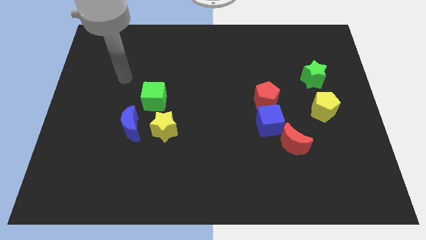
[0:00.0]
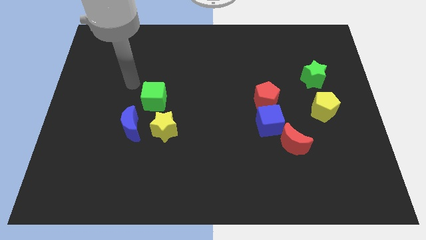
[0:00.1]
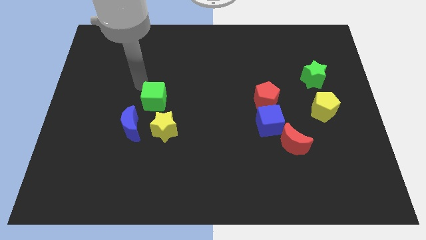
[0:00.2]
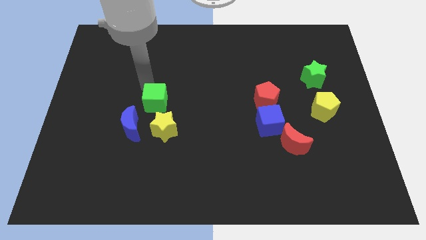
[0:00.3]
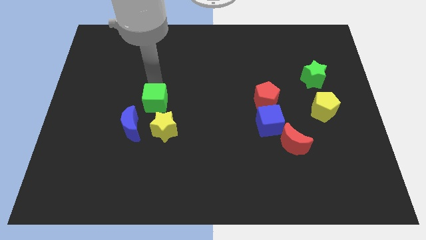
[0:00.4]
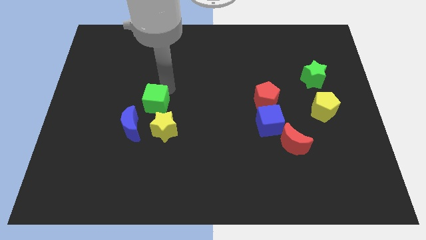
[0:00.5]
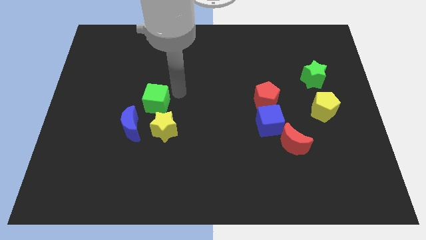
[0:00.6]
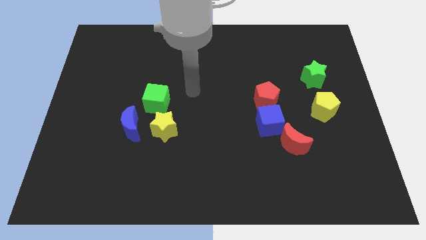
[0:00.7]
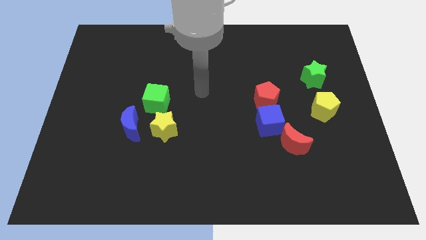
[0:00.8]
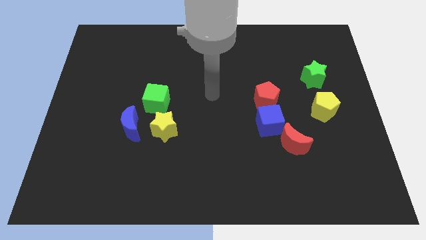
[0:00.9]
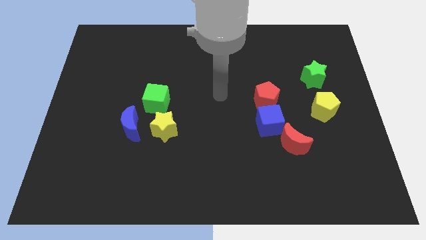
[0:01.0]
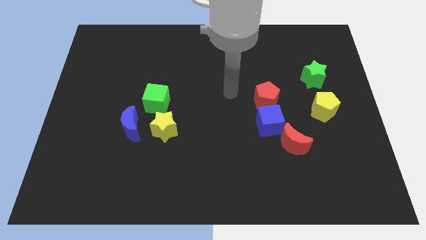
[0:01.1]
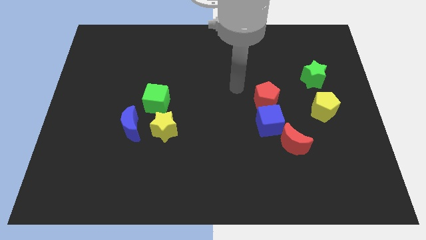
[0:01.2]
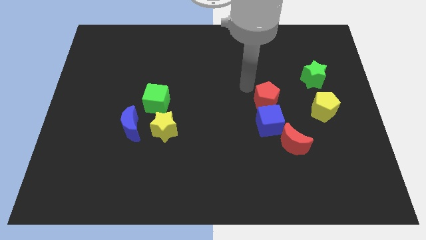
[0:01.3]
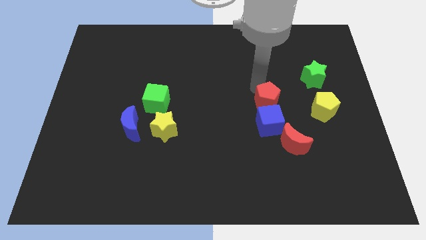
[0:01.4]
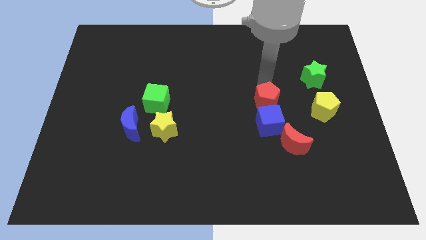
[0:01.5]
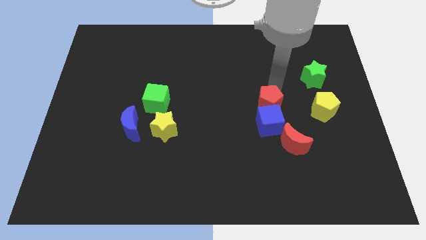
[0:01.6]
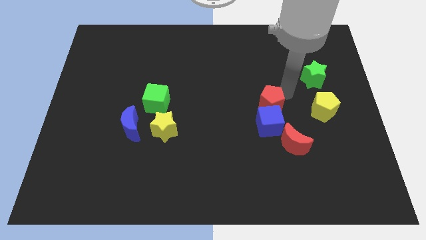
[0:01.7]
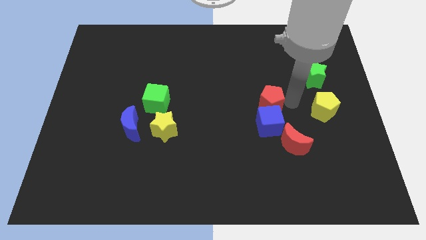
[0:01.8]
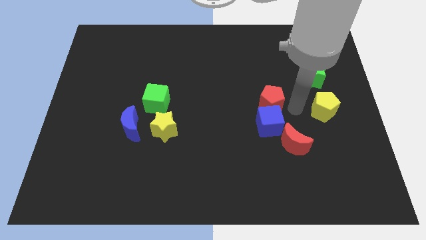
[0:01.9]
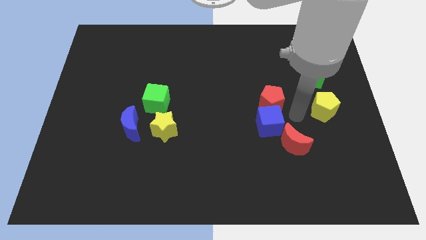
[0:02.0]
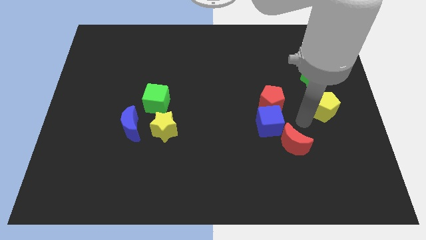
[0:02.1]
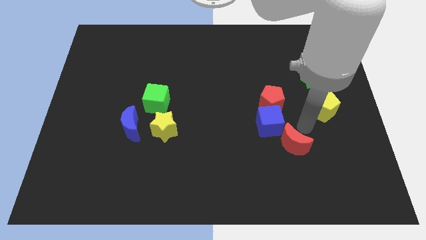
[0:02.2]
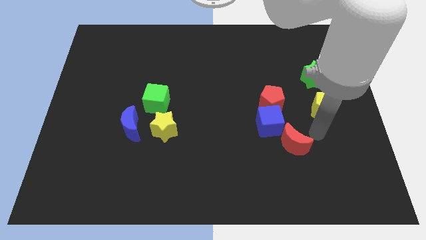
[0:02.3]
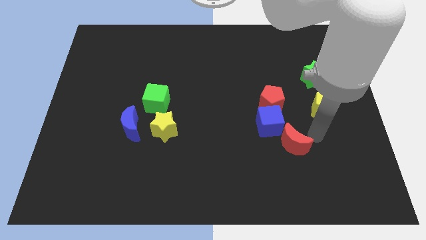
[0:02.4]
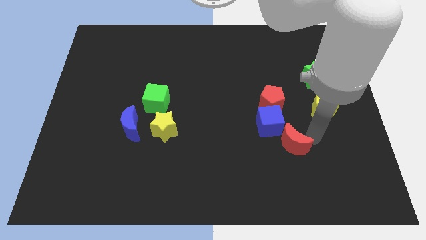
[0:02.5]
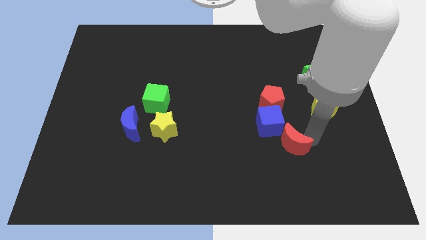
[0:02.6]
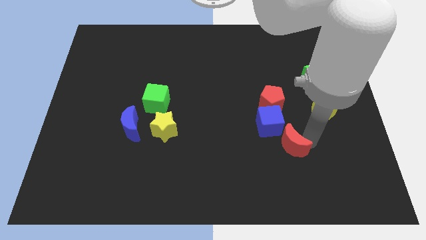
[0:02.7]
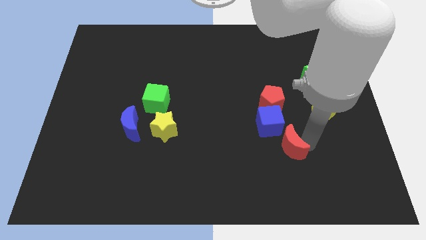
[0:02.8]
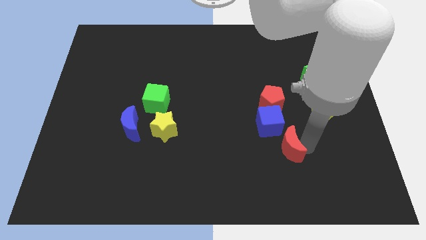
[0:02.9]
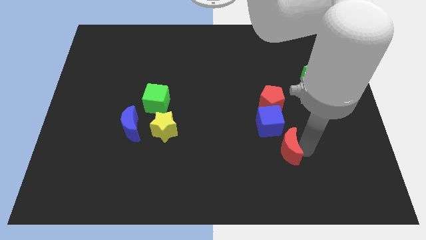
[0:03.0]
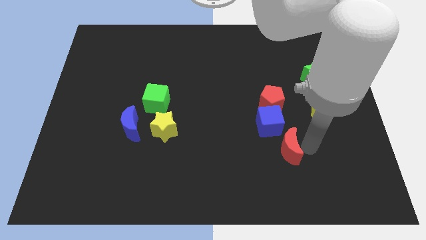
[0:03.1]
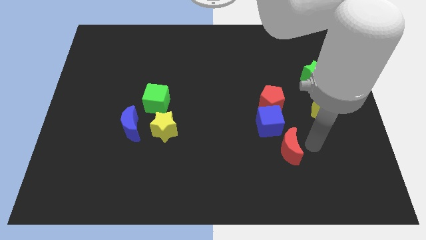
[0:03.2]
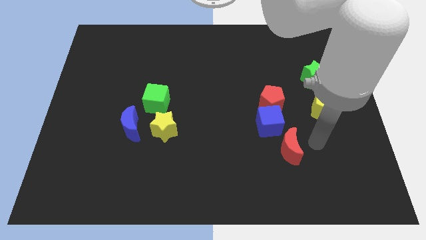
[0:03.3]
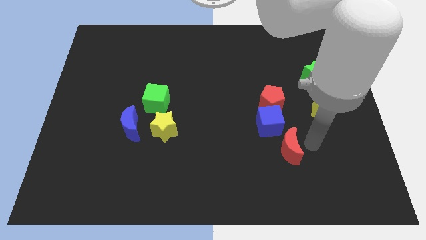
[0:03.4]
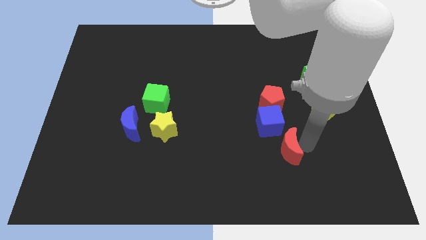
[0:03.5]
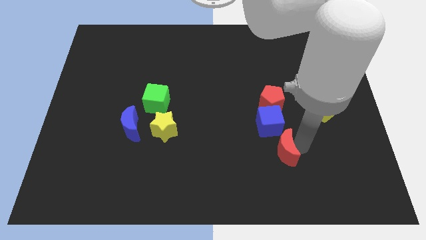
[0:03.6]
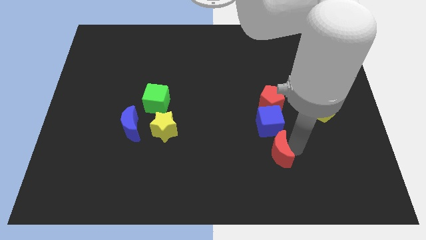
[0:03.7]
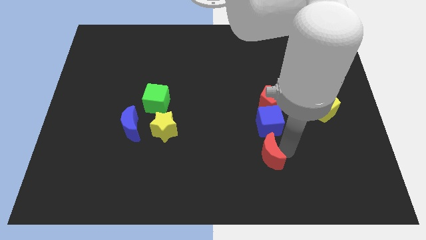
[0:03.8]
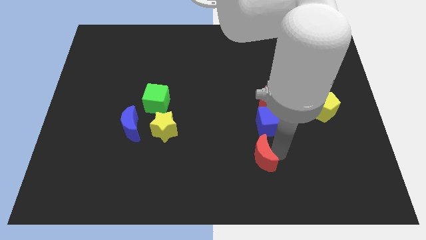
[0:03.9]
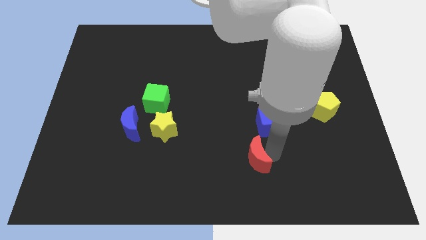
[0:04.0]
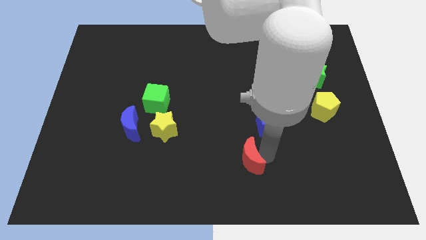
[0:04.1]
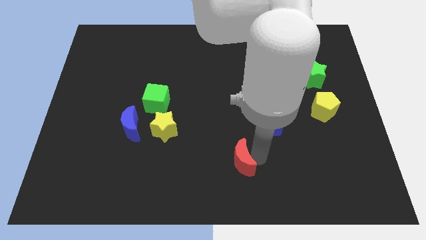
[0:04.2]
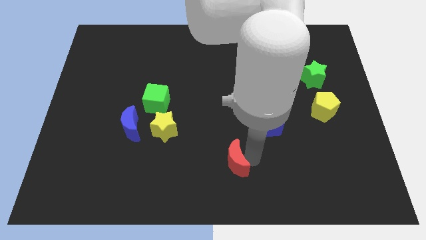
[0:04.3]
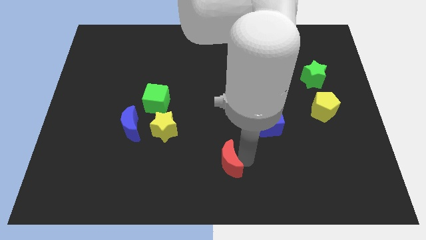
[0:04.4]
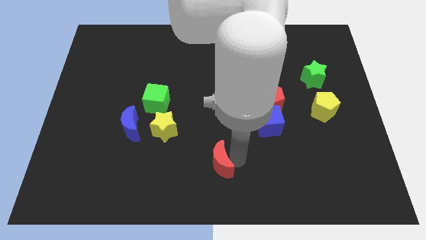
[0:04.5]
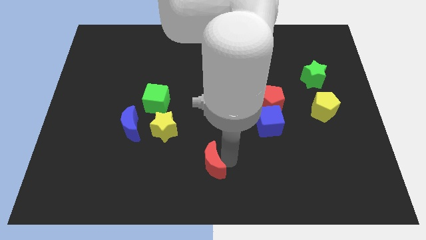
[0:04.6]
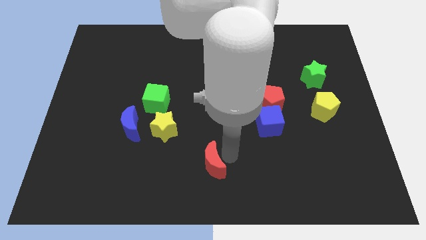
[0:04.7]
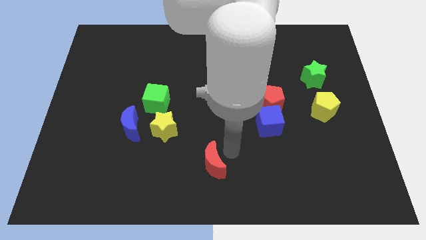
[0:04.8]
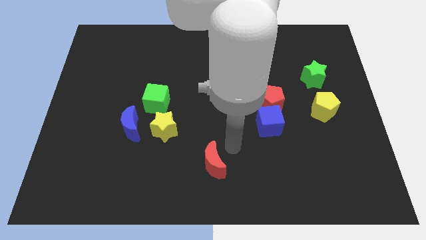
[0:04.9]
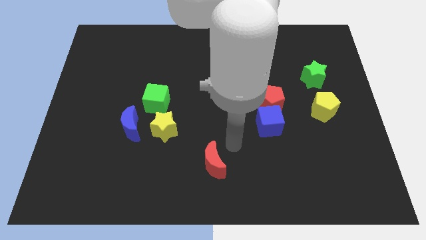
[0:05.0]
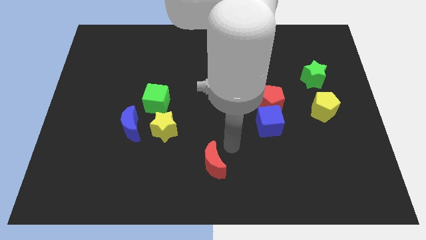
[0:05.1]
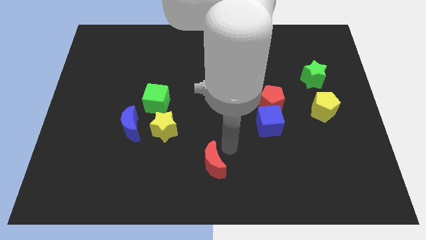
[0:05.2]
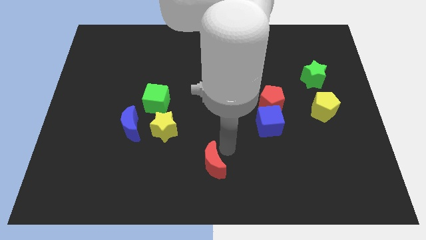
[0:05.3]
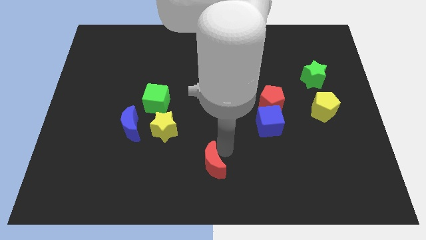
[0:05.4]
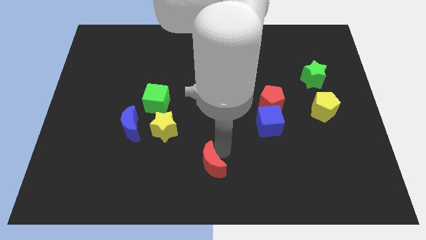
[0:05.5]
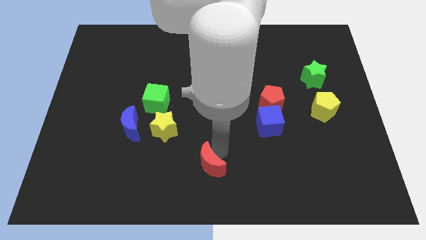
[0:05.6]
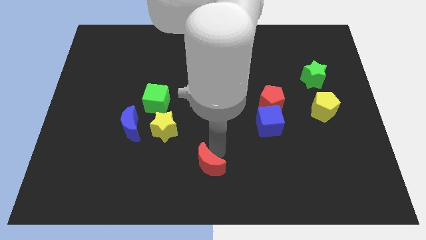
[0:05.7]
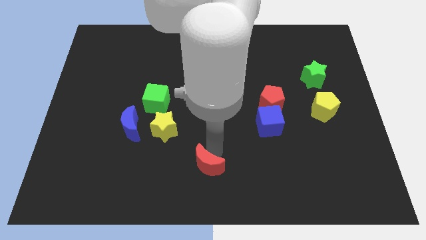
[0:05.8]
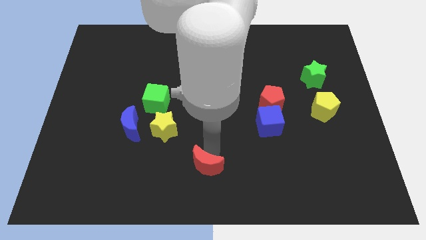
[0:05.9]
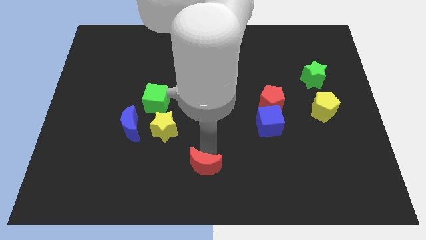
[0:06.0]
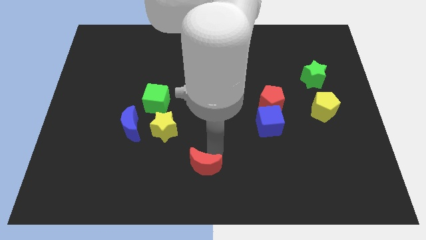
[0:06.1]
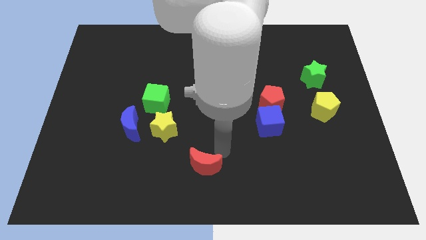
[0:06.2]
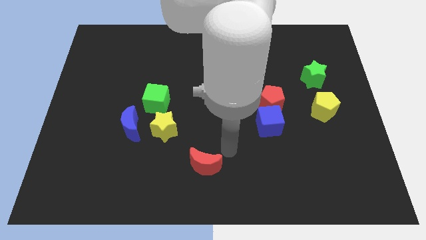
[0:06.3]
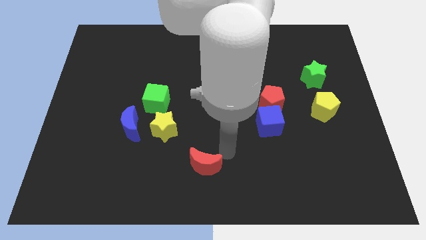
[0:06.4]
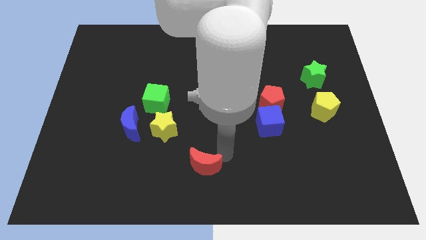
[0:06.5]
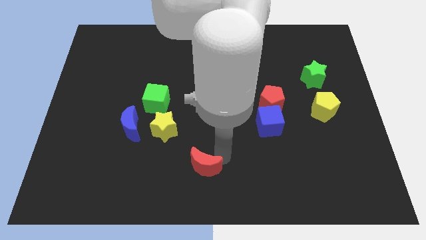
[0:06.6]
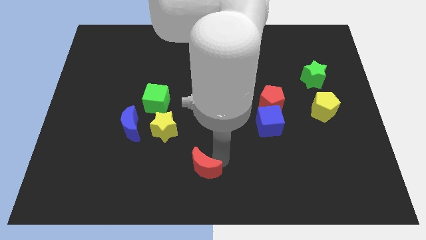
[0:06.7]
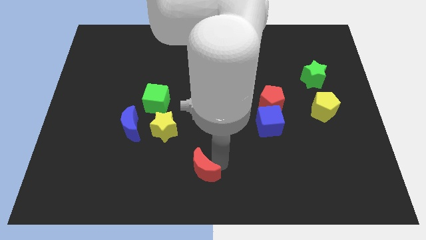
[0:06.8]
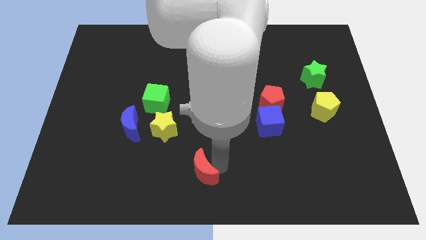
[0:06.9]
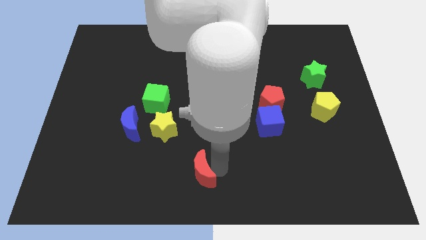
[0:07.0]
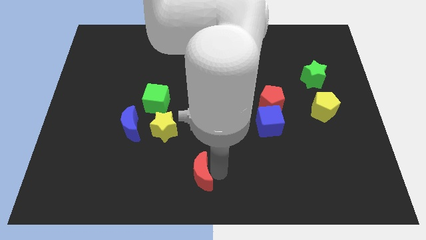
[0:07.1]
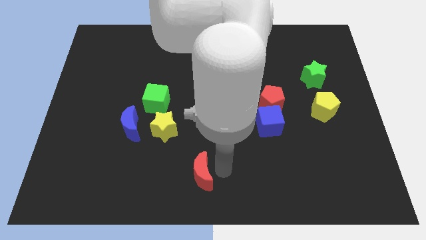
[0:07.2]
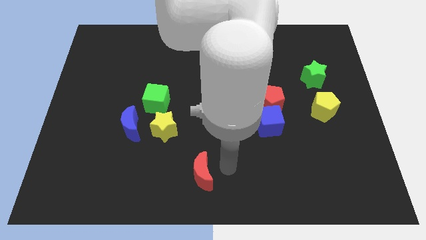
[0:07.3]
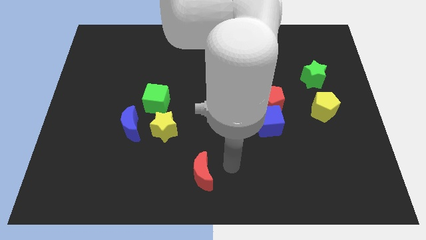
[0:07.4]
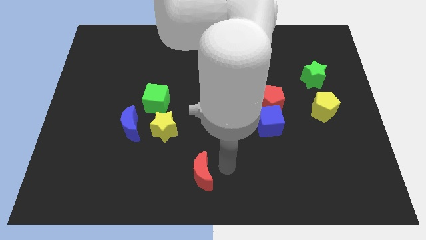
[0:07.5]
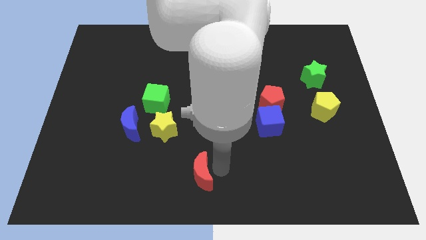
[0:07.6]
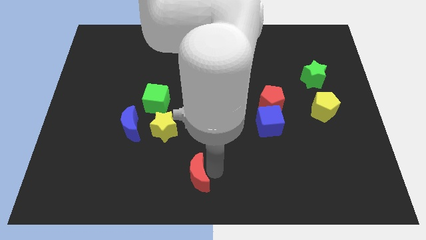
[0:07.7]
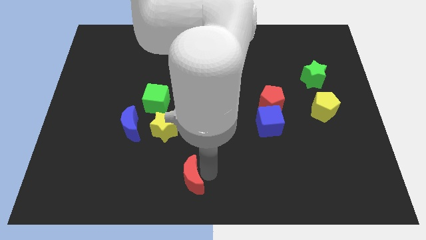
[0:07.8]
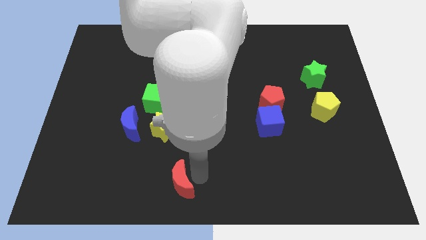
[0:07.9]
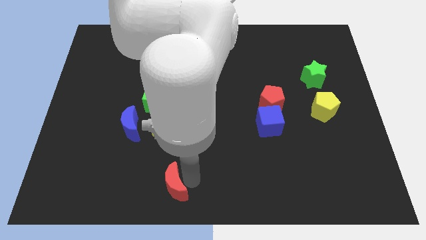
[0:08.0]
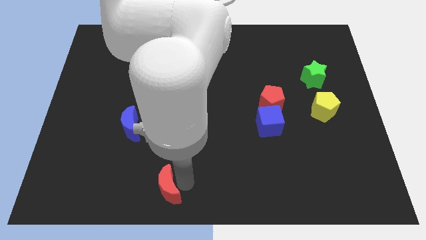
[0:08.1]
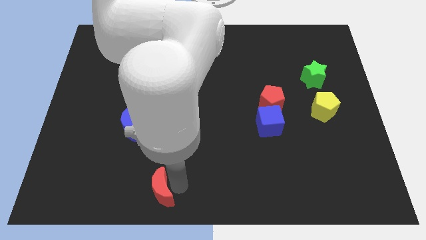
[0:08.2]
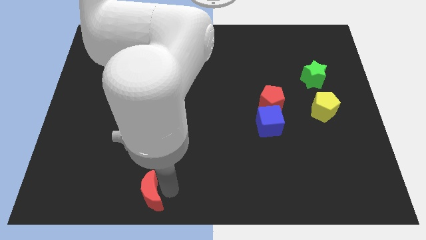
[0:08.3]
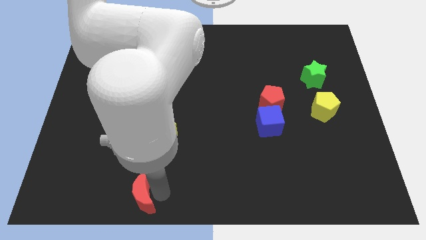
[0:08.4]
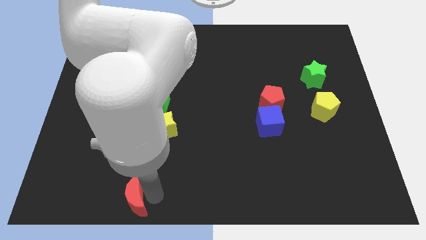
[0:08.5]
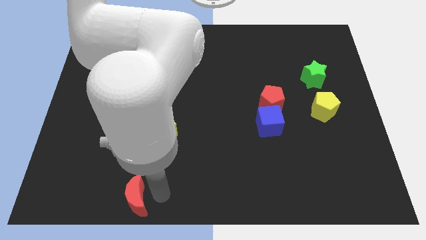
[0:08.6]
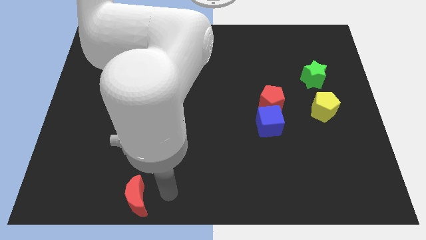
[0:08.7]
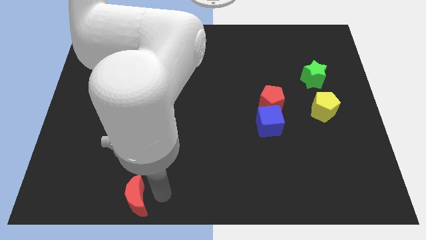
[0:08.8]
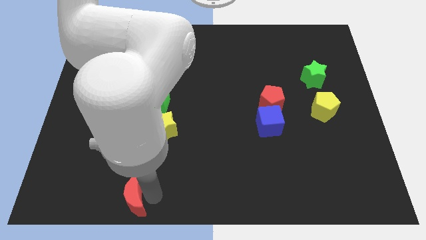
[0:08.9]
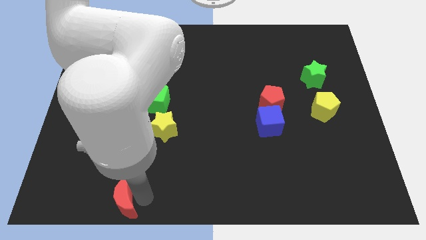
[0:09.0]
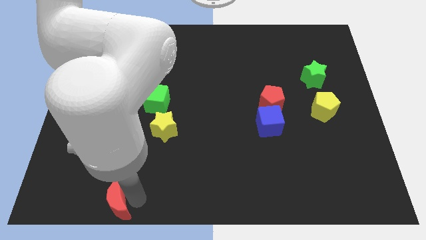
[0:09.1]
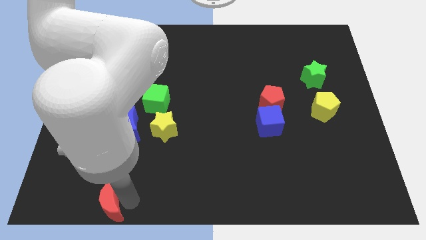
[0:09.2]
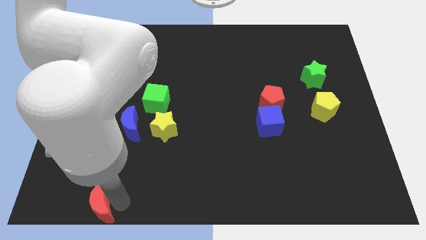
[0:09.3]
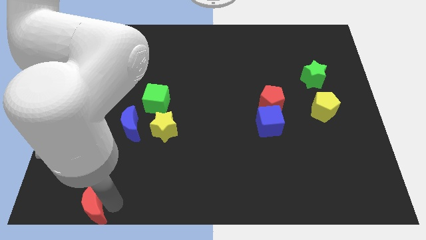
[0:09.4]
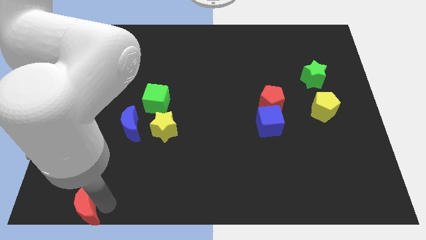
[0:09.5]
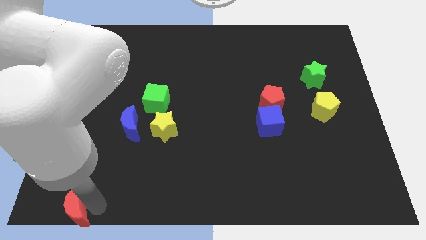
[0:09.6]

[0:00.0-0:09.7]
push the red moon to the bottom left of the board
